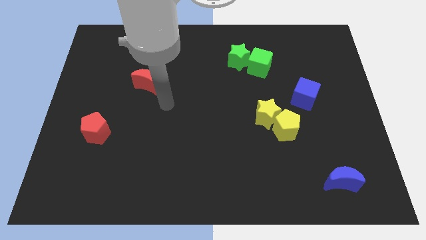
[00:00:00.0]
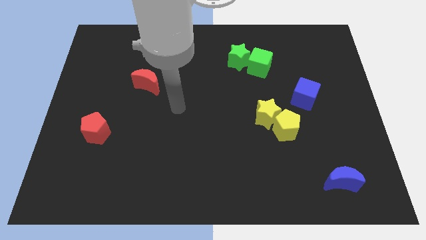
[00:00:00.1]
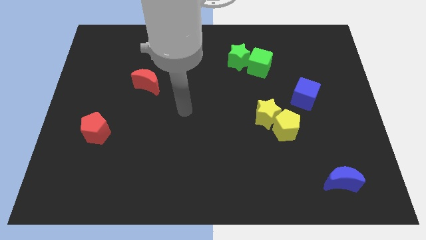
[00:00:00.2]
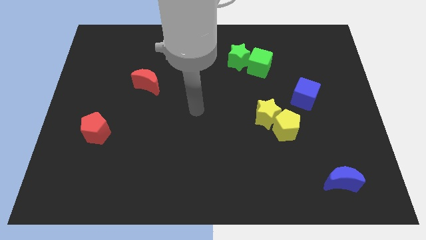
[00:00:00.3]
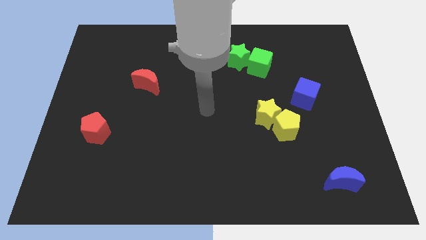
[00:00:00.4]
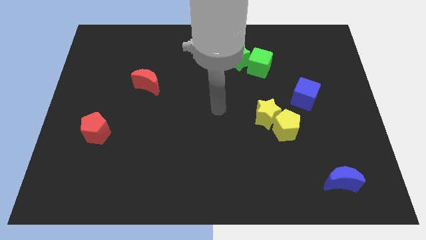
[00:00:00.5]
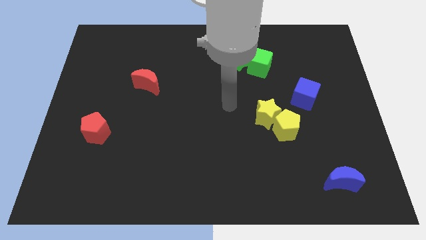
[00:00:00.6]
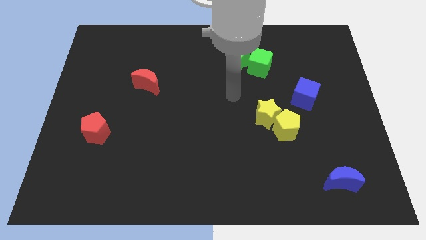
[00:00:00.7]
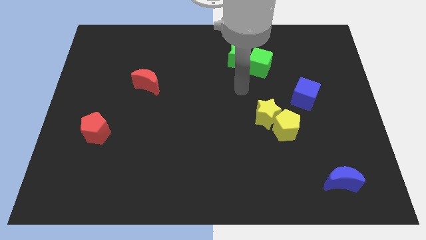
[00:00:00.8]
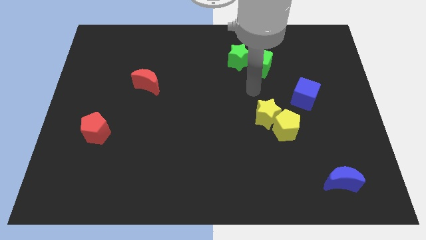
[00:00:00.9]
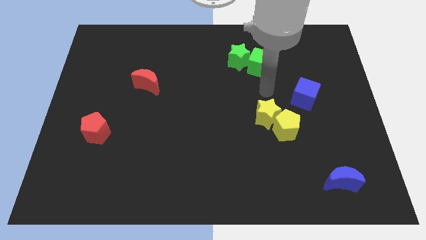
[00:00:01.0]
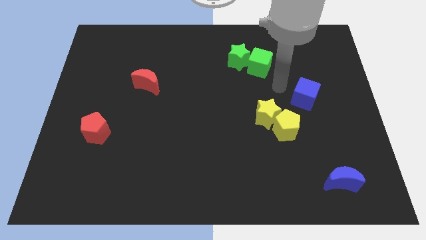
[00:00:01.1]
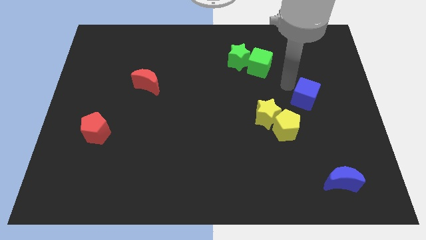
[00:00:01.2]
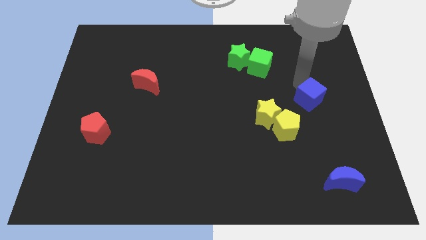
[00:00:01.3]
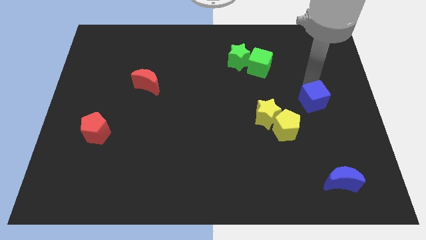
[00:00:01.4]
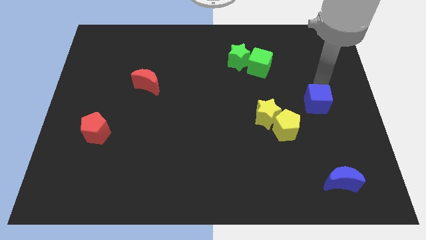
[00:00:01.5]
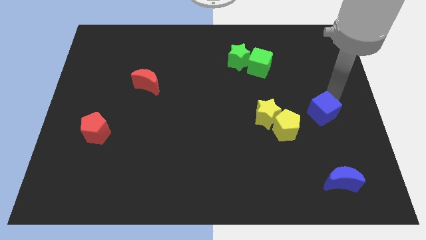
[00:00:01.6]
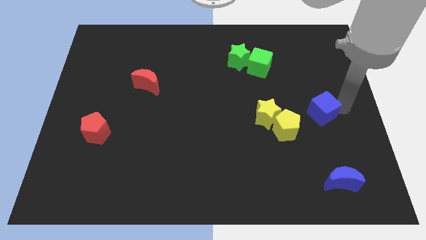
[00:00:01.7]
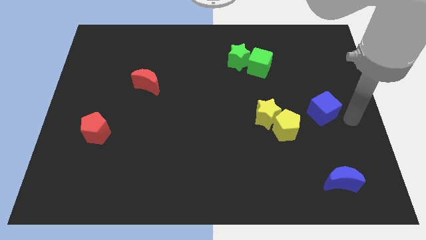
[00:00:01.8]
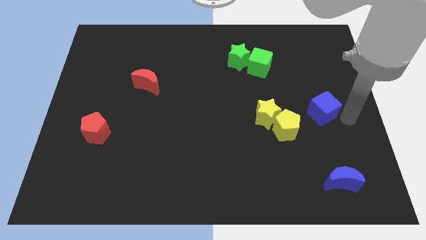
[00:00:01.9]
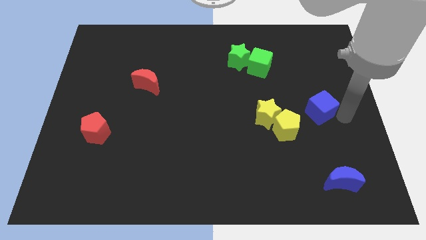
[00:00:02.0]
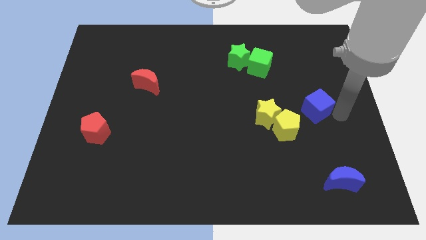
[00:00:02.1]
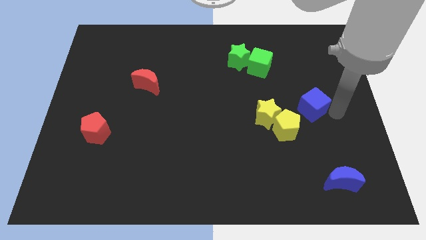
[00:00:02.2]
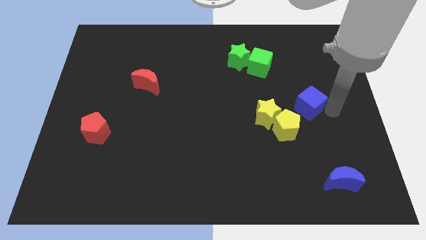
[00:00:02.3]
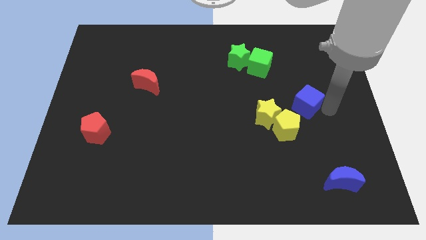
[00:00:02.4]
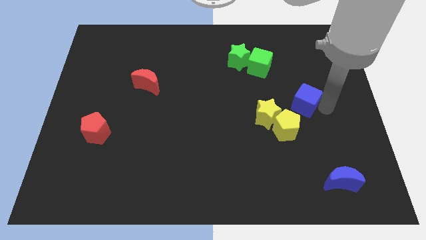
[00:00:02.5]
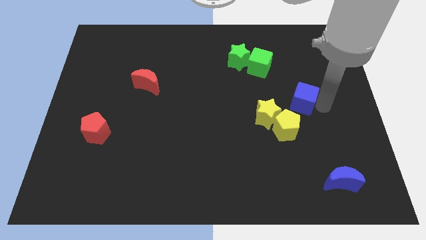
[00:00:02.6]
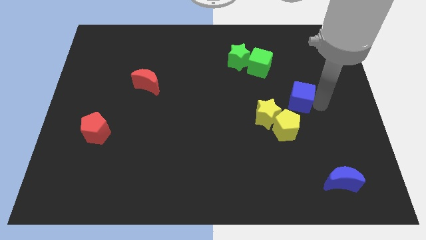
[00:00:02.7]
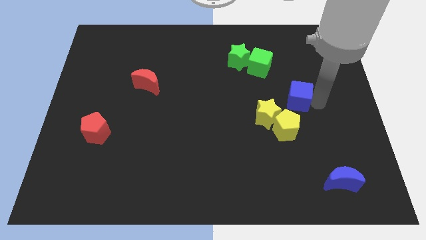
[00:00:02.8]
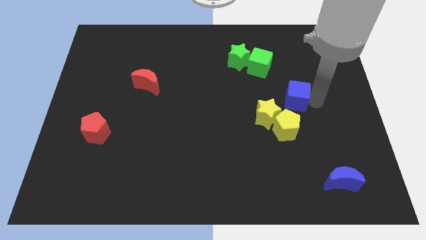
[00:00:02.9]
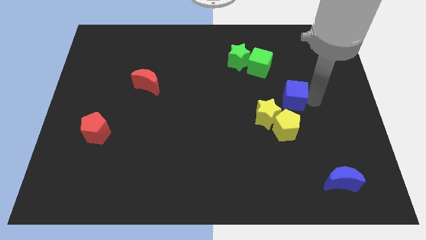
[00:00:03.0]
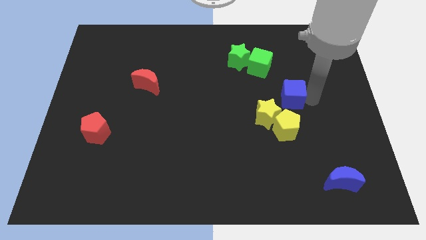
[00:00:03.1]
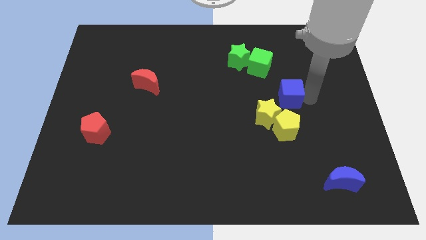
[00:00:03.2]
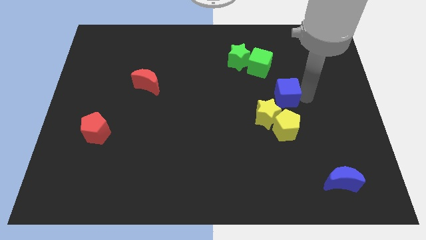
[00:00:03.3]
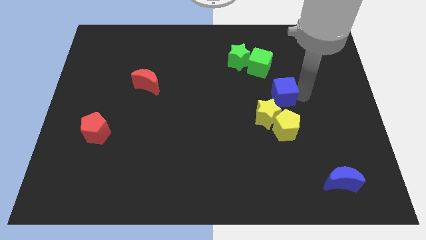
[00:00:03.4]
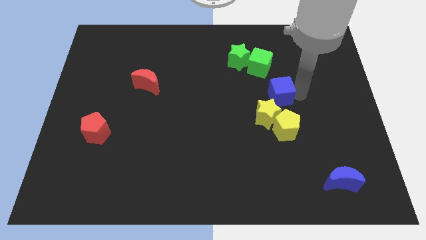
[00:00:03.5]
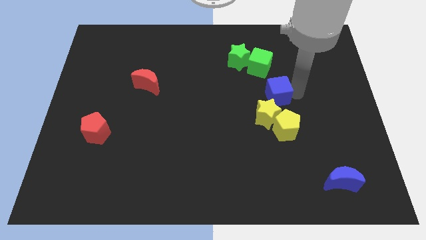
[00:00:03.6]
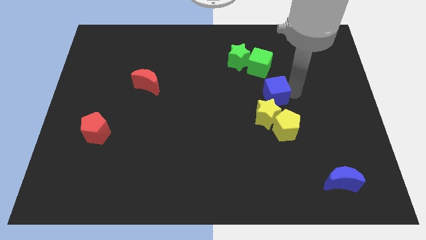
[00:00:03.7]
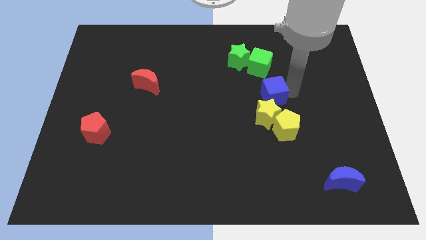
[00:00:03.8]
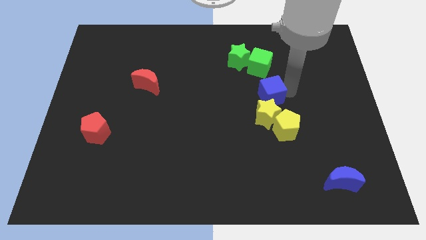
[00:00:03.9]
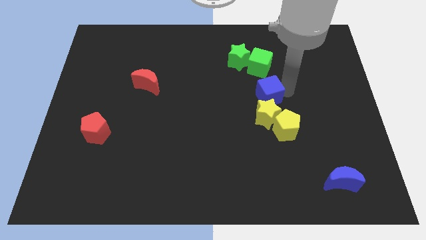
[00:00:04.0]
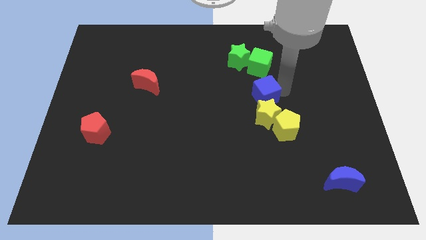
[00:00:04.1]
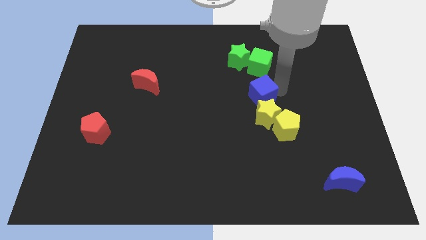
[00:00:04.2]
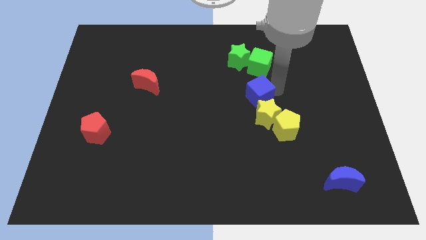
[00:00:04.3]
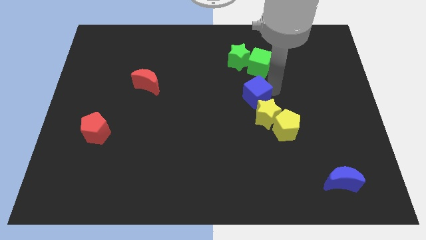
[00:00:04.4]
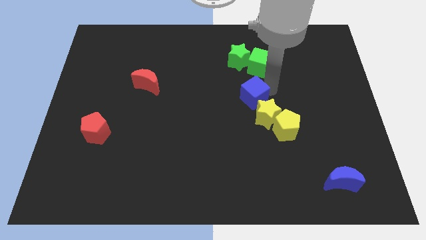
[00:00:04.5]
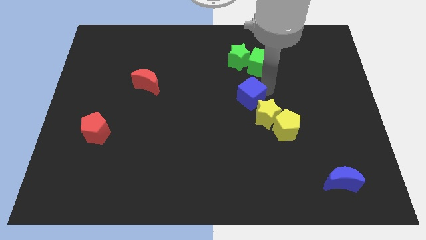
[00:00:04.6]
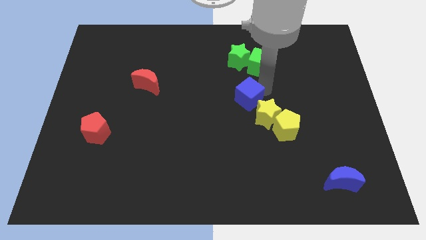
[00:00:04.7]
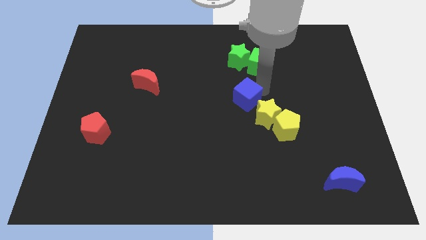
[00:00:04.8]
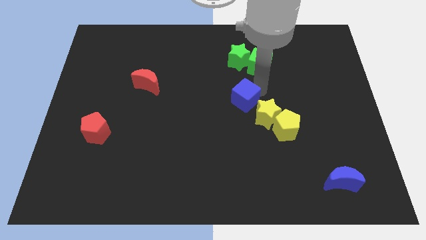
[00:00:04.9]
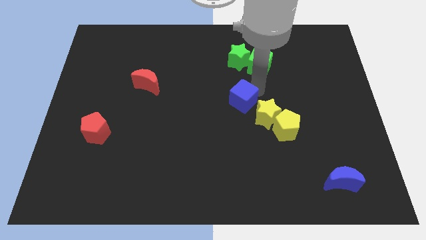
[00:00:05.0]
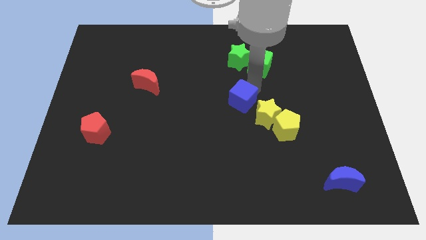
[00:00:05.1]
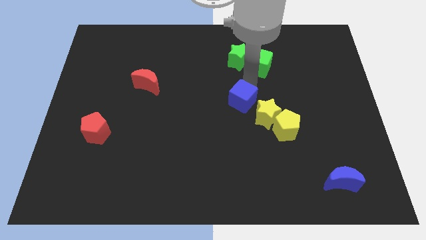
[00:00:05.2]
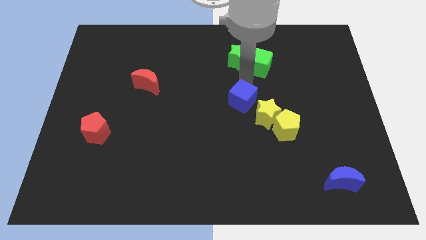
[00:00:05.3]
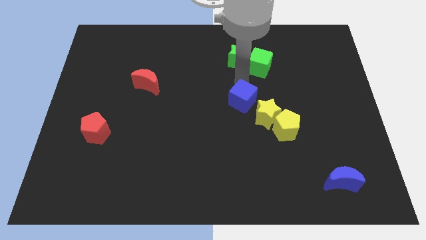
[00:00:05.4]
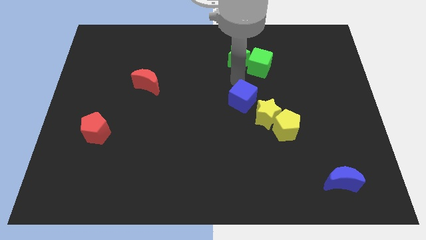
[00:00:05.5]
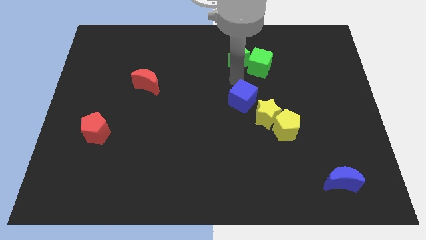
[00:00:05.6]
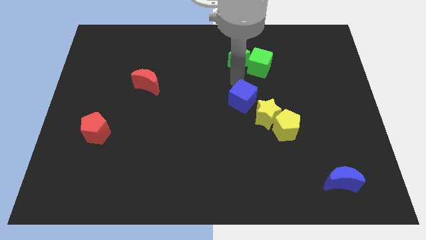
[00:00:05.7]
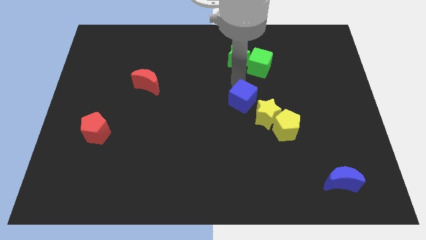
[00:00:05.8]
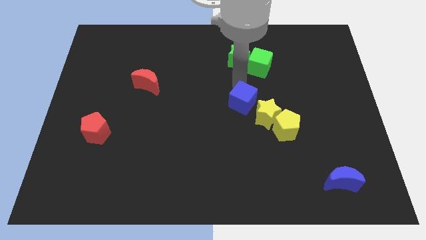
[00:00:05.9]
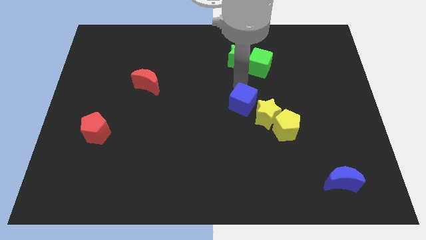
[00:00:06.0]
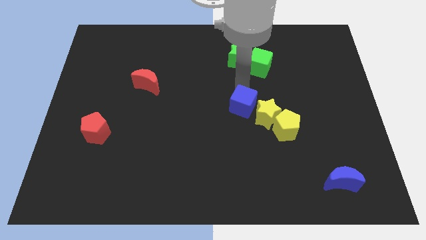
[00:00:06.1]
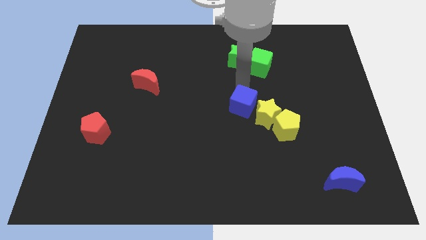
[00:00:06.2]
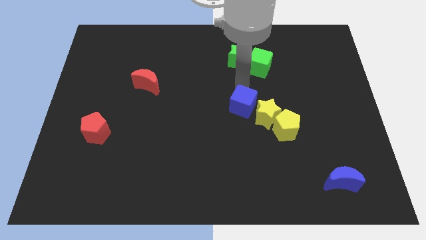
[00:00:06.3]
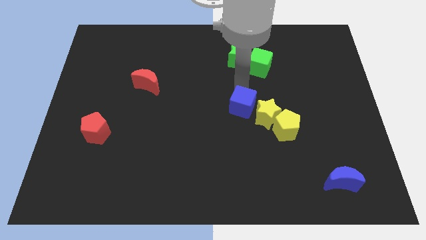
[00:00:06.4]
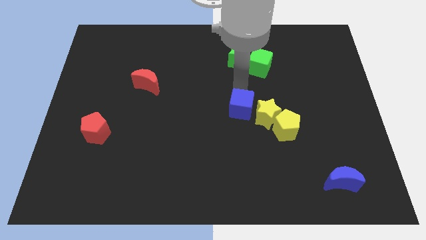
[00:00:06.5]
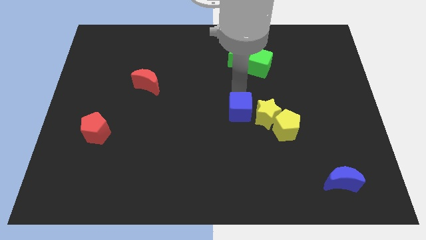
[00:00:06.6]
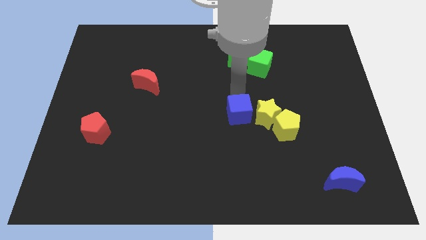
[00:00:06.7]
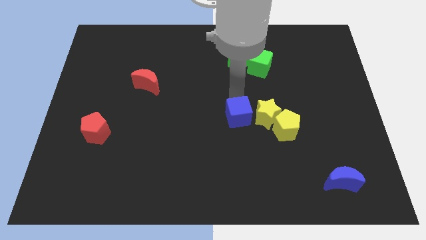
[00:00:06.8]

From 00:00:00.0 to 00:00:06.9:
slide the blue cube to the bottom left of the yellow star
